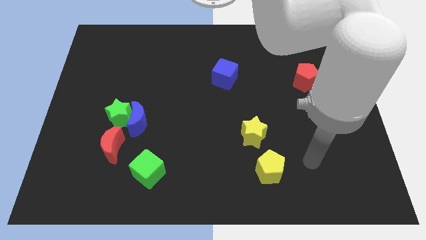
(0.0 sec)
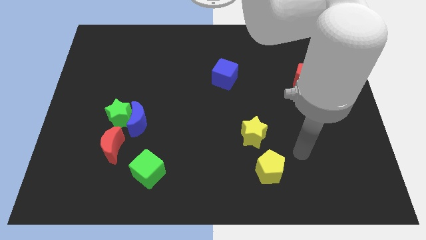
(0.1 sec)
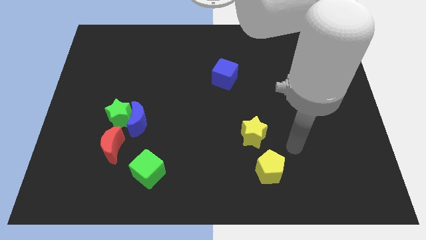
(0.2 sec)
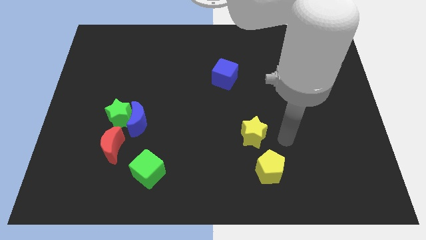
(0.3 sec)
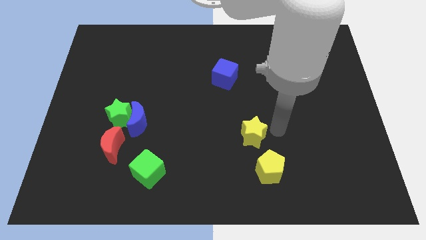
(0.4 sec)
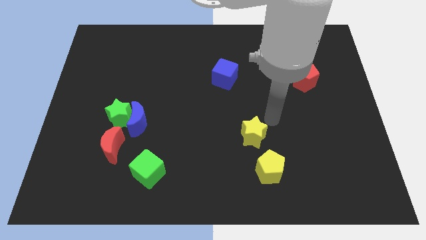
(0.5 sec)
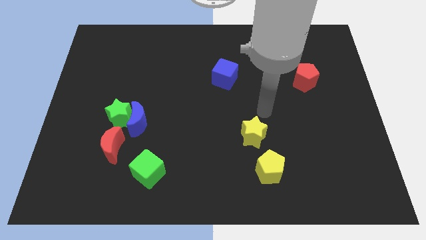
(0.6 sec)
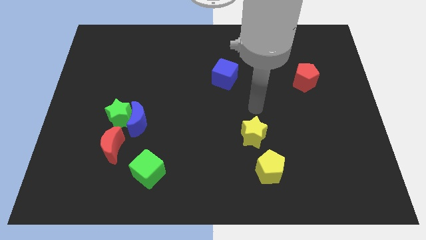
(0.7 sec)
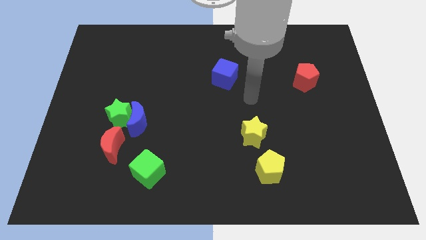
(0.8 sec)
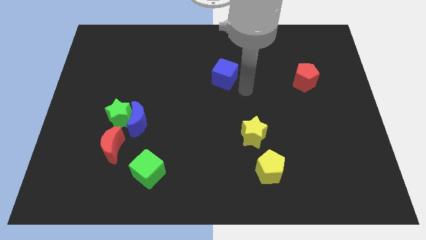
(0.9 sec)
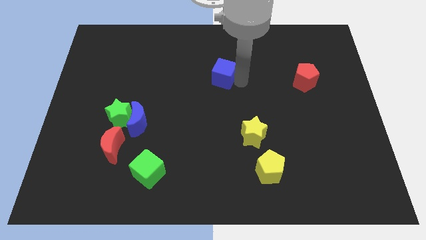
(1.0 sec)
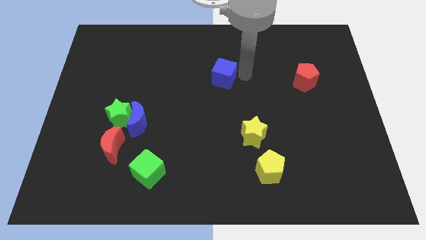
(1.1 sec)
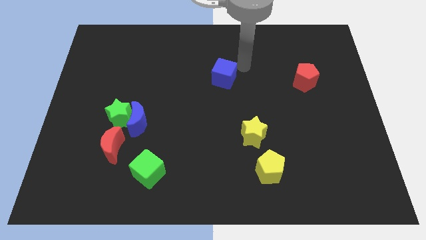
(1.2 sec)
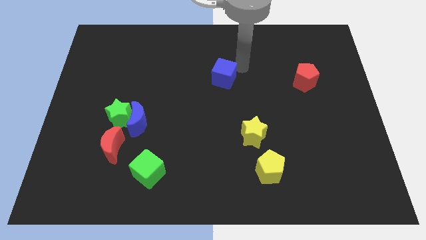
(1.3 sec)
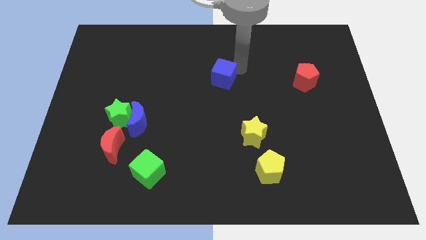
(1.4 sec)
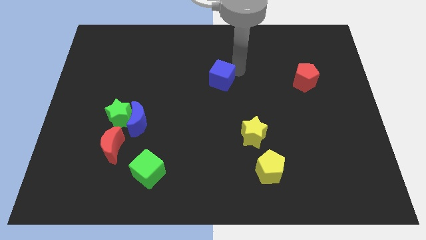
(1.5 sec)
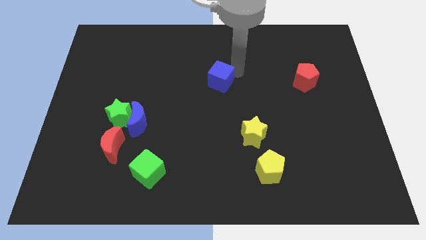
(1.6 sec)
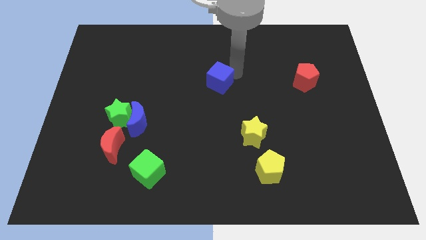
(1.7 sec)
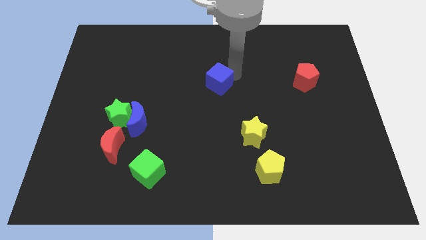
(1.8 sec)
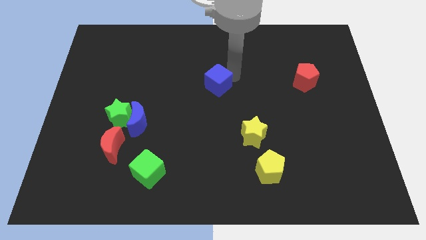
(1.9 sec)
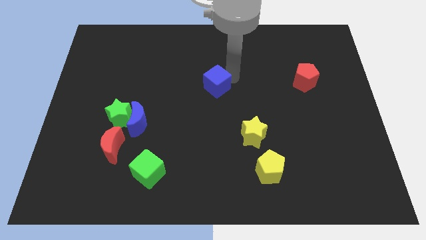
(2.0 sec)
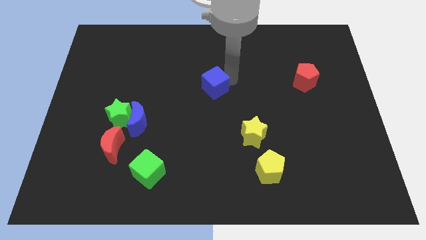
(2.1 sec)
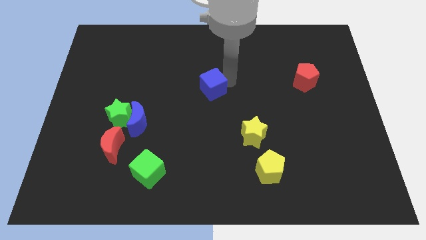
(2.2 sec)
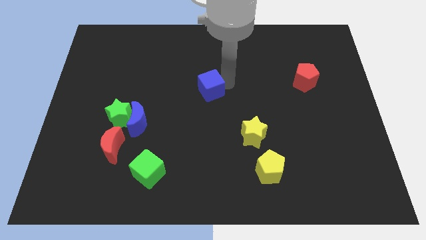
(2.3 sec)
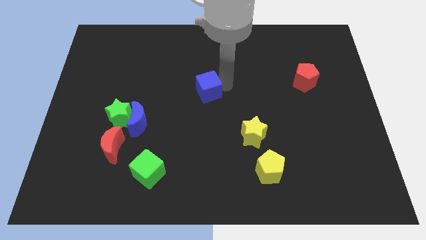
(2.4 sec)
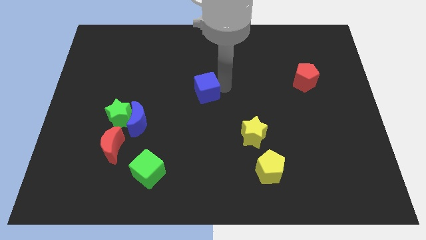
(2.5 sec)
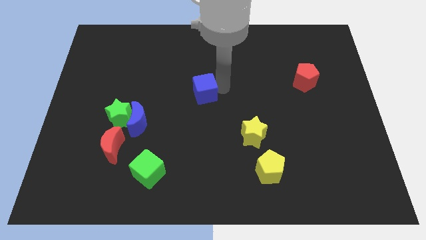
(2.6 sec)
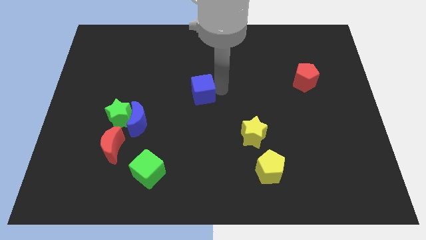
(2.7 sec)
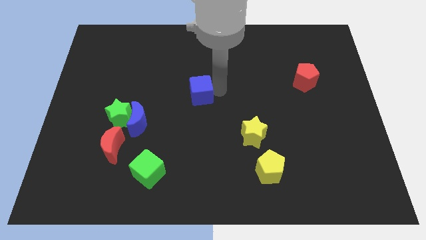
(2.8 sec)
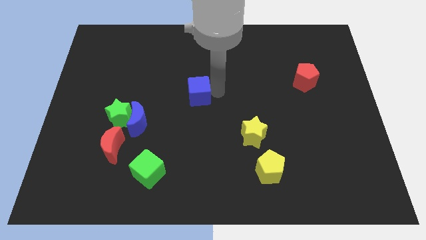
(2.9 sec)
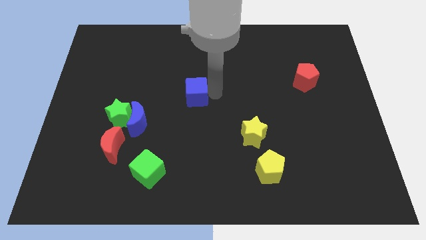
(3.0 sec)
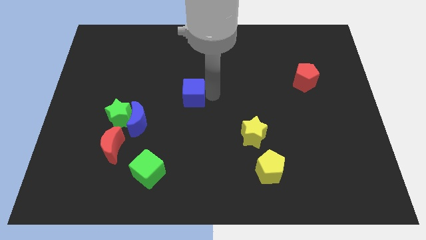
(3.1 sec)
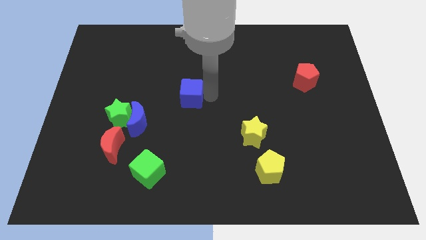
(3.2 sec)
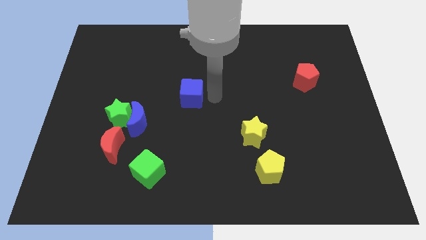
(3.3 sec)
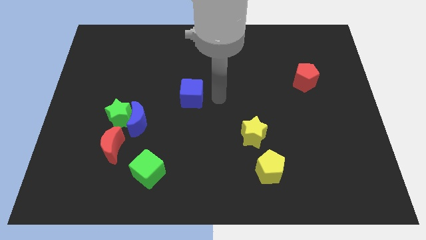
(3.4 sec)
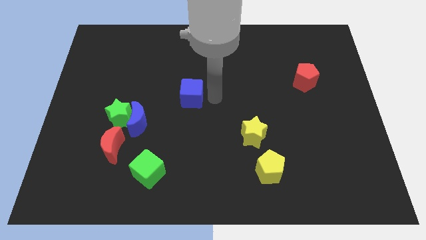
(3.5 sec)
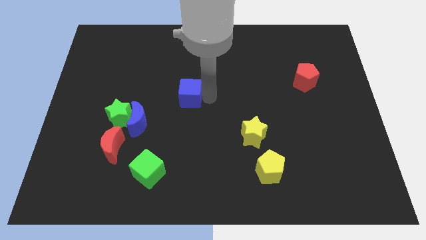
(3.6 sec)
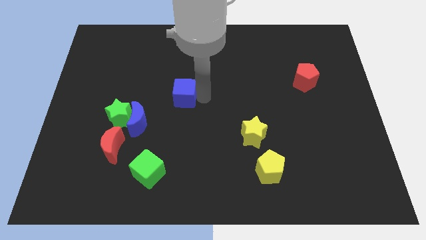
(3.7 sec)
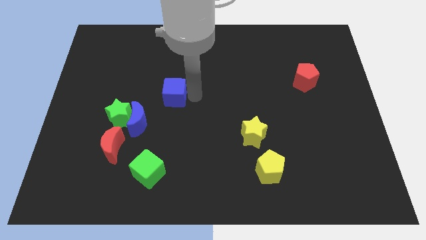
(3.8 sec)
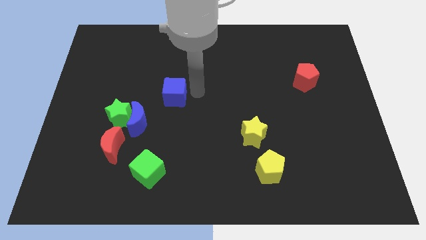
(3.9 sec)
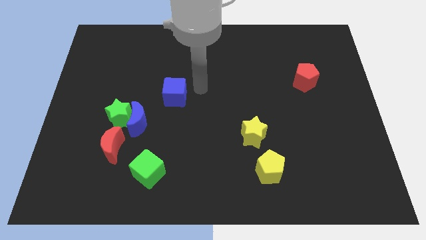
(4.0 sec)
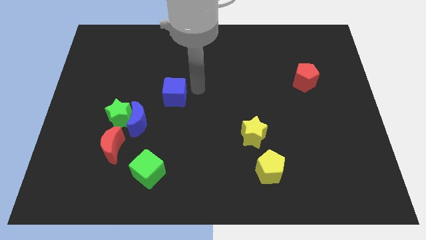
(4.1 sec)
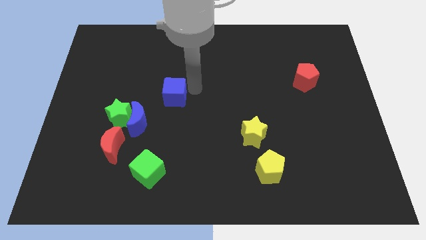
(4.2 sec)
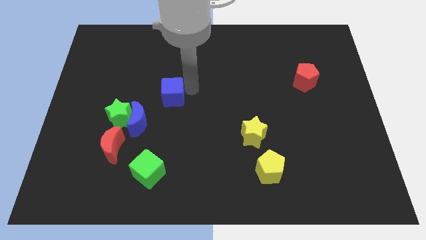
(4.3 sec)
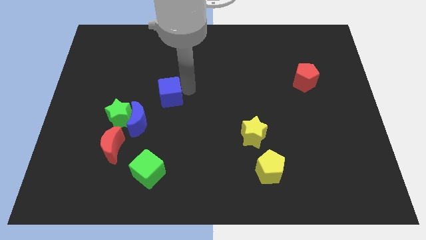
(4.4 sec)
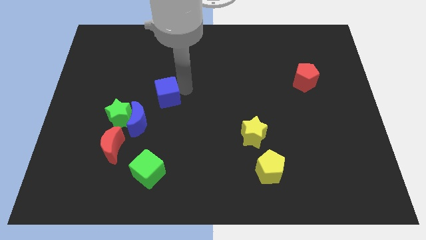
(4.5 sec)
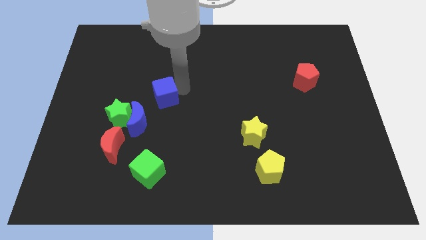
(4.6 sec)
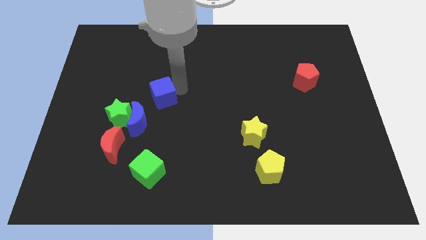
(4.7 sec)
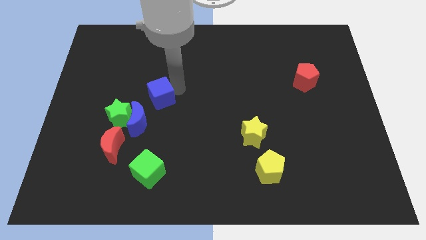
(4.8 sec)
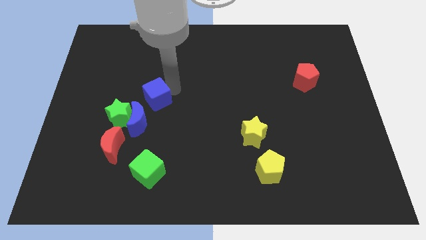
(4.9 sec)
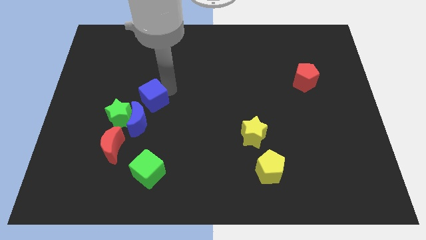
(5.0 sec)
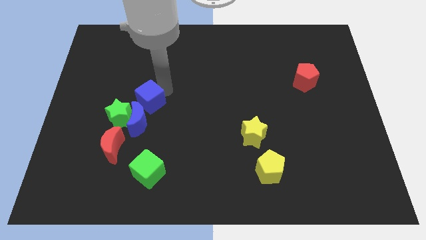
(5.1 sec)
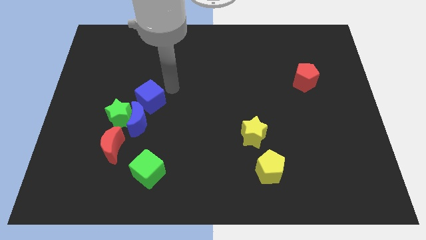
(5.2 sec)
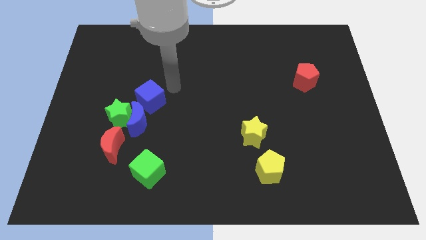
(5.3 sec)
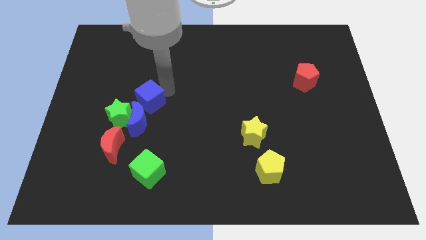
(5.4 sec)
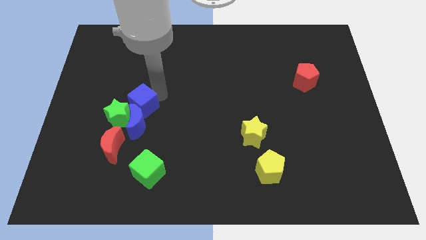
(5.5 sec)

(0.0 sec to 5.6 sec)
move the blue cube close to the green star

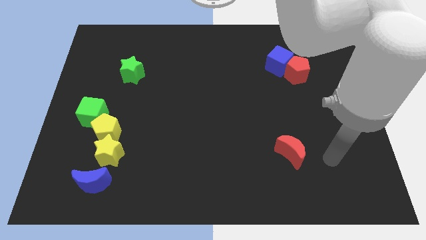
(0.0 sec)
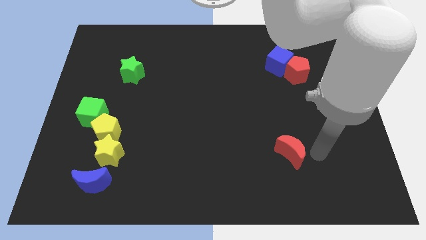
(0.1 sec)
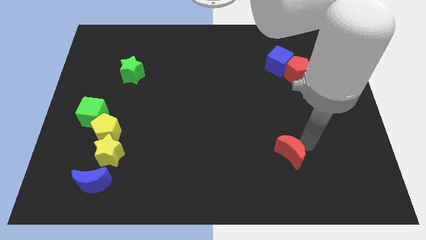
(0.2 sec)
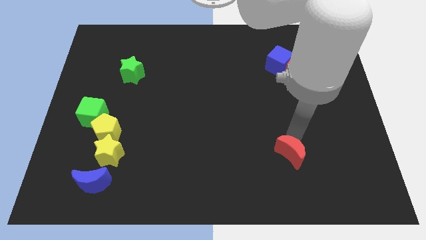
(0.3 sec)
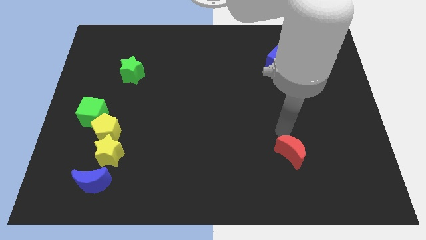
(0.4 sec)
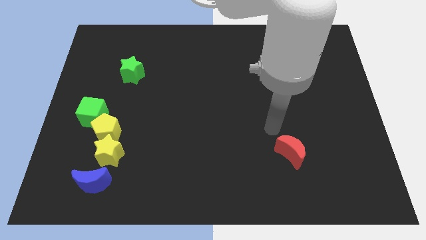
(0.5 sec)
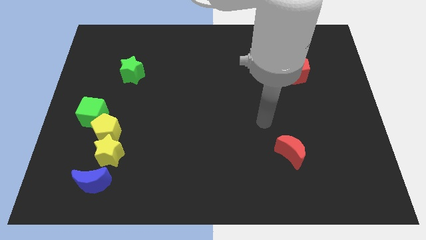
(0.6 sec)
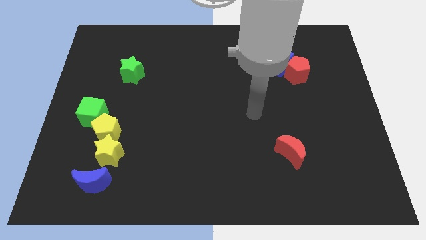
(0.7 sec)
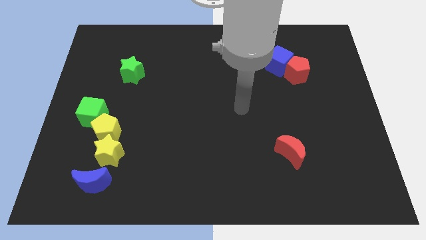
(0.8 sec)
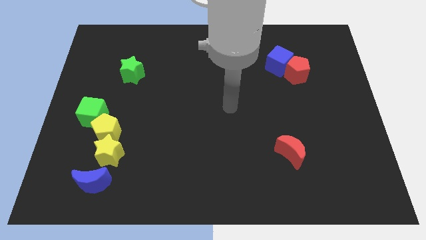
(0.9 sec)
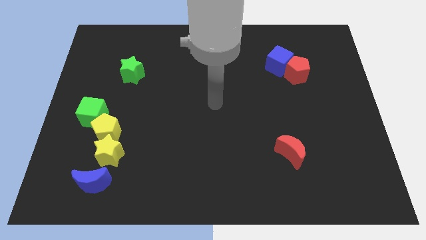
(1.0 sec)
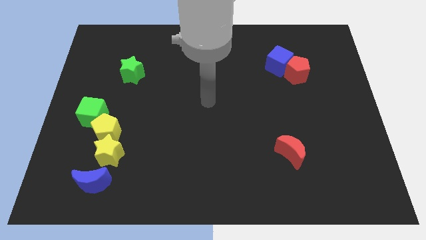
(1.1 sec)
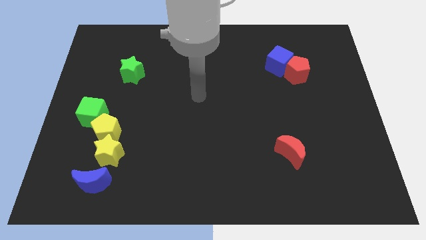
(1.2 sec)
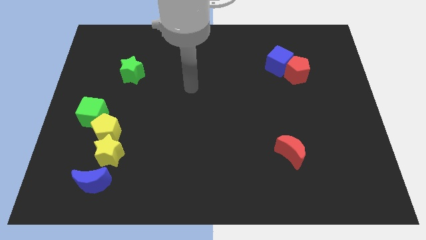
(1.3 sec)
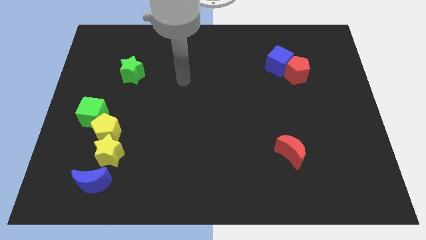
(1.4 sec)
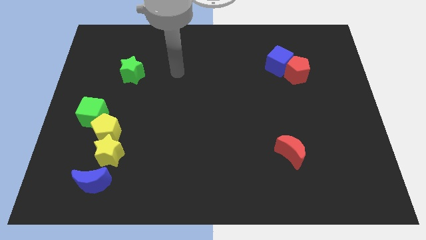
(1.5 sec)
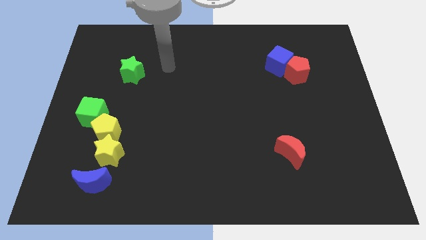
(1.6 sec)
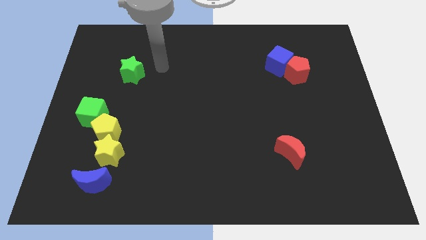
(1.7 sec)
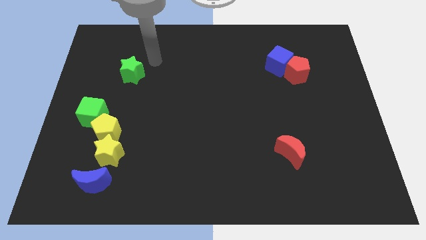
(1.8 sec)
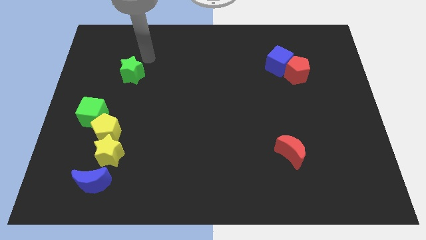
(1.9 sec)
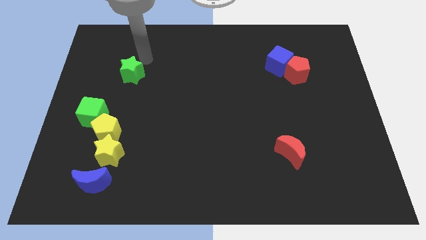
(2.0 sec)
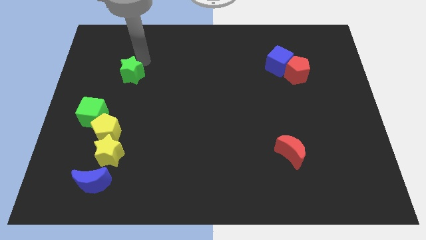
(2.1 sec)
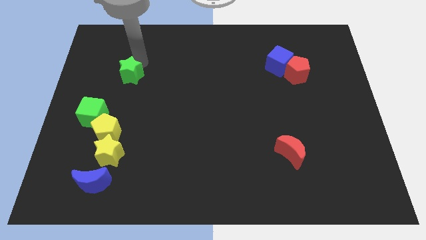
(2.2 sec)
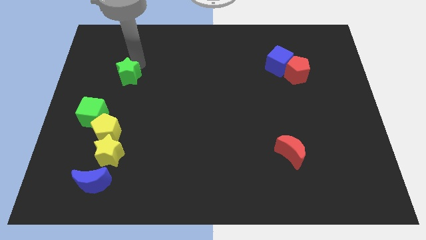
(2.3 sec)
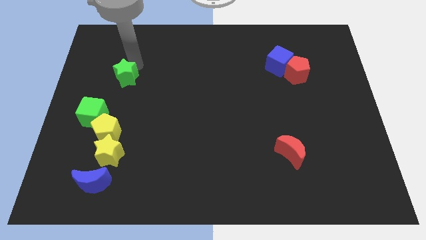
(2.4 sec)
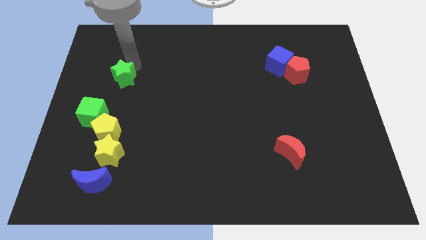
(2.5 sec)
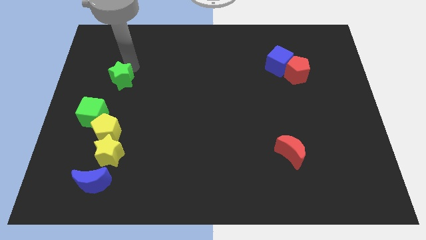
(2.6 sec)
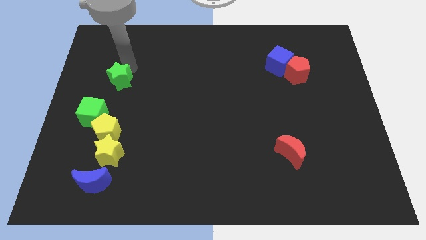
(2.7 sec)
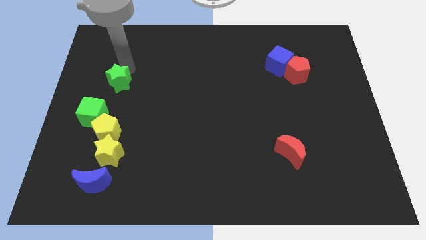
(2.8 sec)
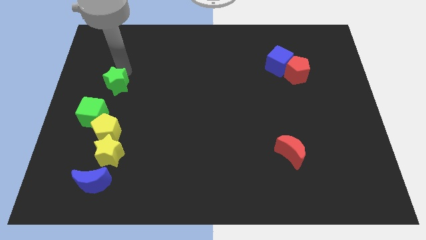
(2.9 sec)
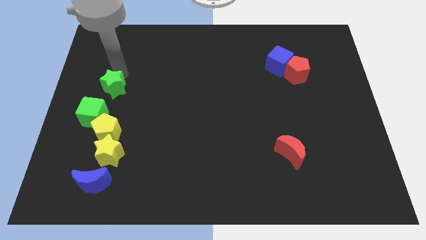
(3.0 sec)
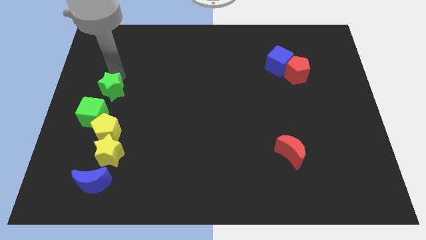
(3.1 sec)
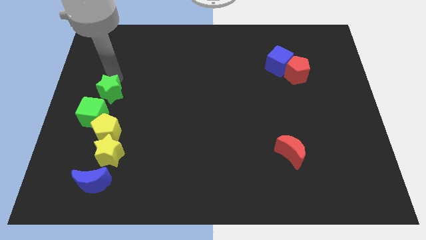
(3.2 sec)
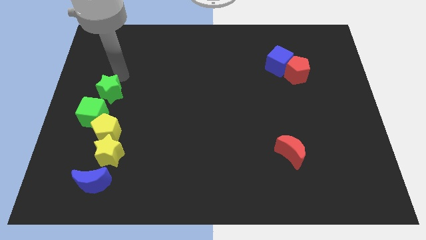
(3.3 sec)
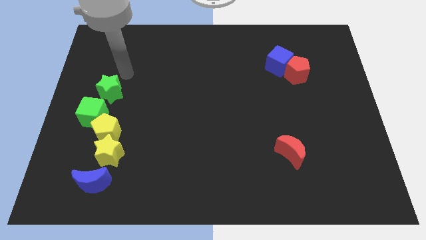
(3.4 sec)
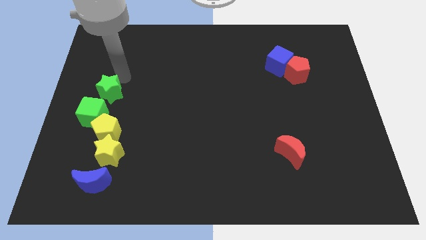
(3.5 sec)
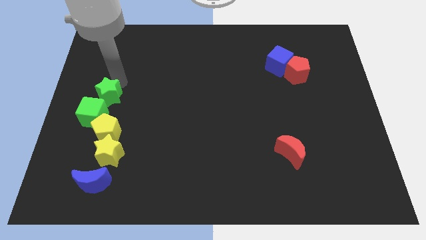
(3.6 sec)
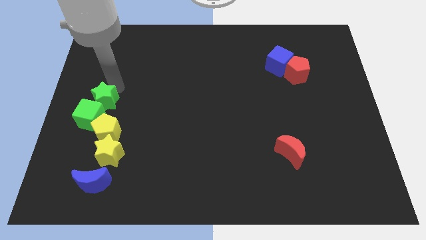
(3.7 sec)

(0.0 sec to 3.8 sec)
slide the green star towards the green cube
